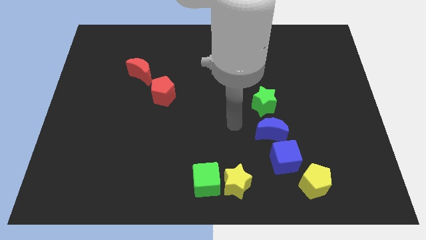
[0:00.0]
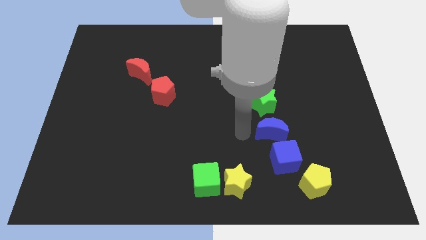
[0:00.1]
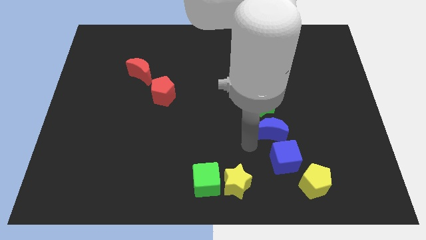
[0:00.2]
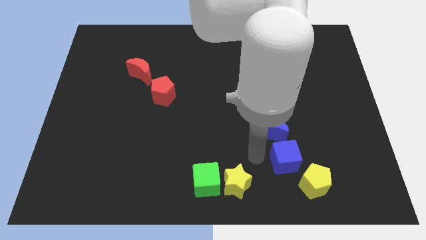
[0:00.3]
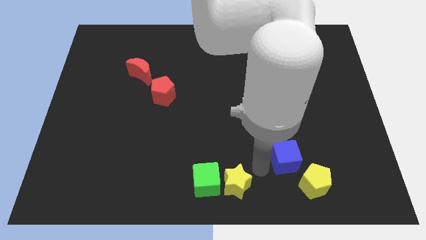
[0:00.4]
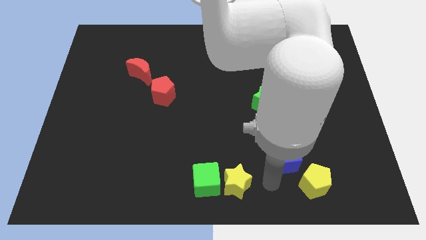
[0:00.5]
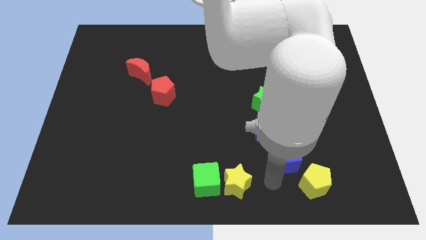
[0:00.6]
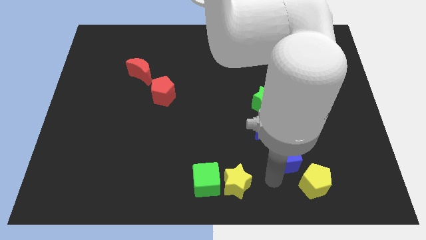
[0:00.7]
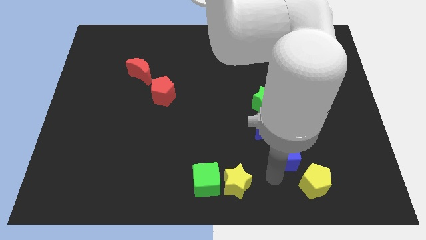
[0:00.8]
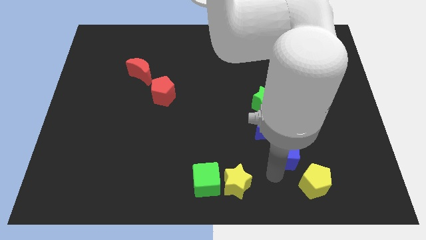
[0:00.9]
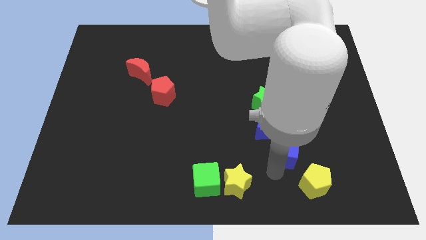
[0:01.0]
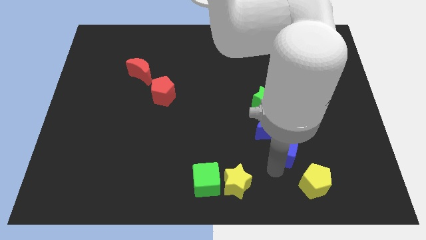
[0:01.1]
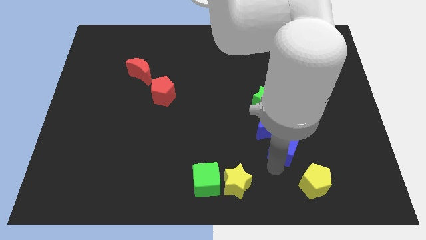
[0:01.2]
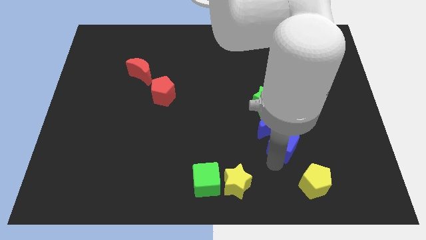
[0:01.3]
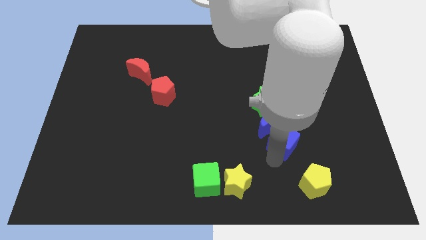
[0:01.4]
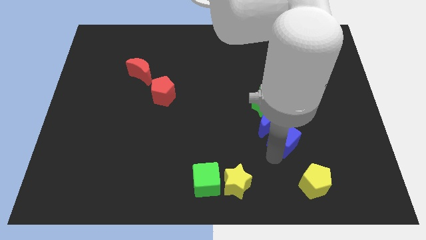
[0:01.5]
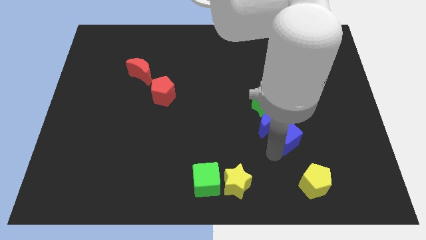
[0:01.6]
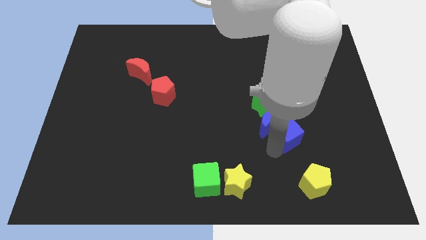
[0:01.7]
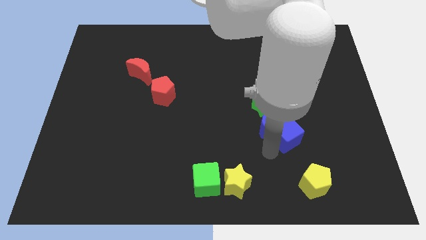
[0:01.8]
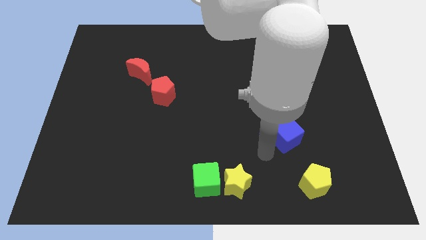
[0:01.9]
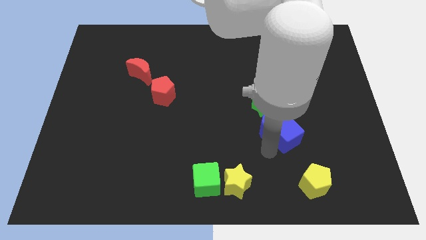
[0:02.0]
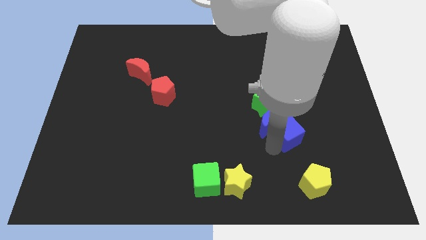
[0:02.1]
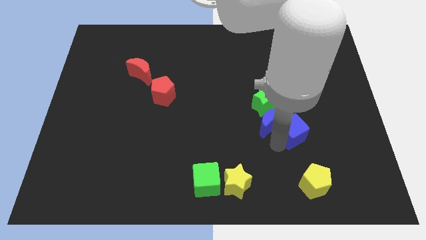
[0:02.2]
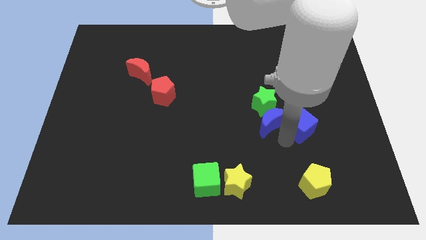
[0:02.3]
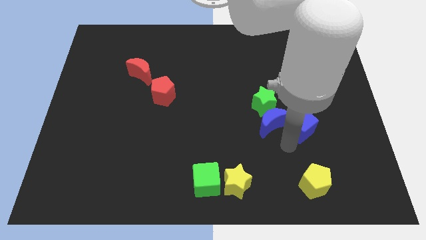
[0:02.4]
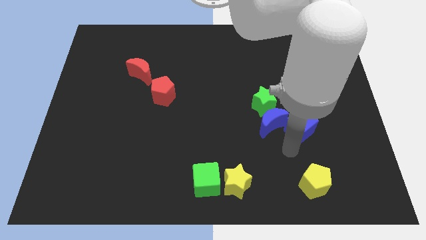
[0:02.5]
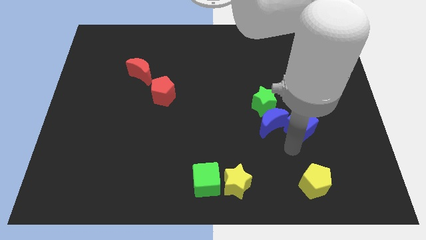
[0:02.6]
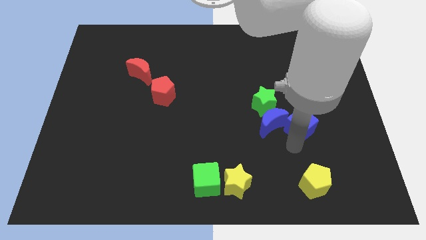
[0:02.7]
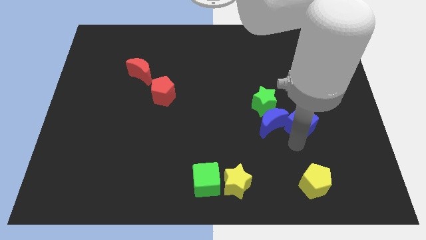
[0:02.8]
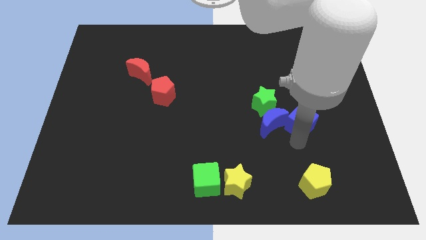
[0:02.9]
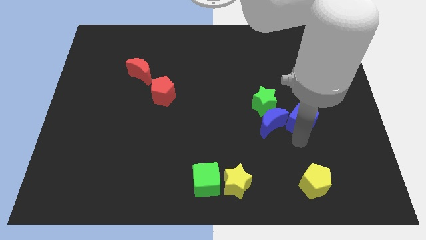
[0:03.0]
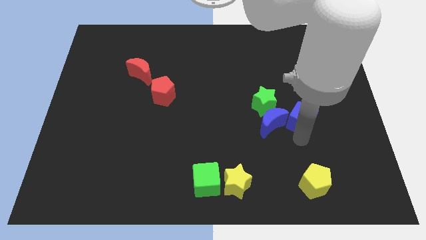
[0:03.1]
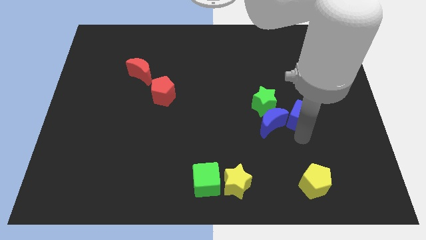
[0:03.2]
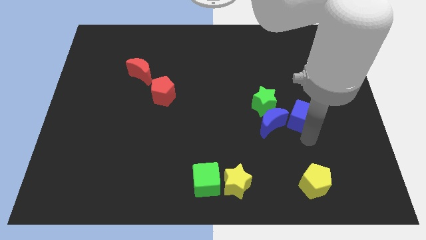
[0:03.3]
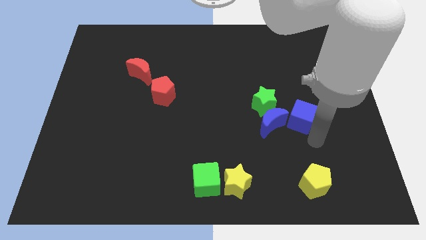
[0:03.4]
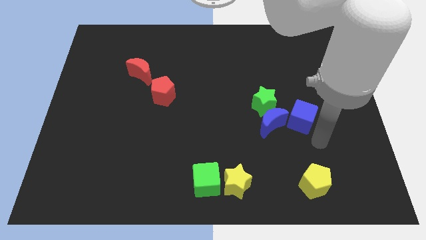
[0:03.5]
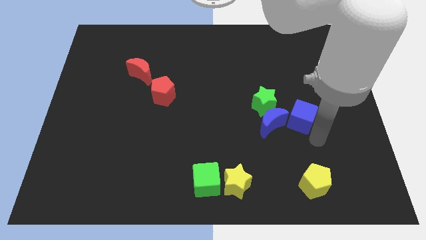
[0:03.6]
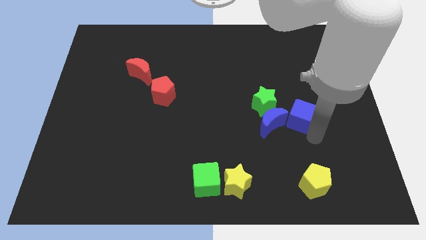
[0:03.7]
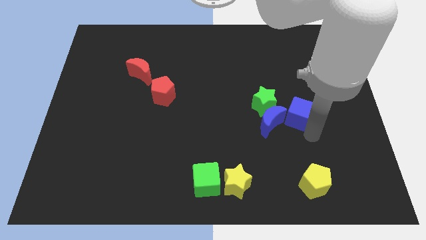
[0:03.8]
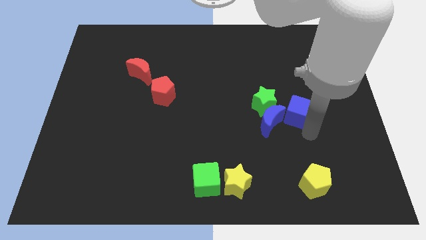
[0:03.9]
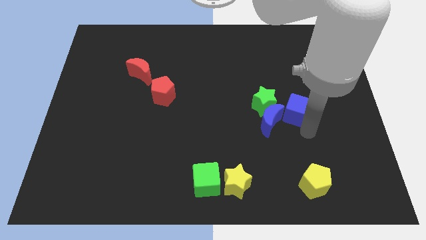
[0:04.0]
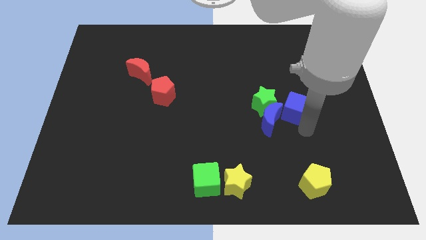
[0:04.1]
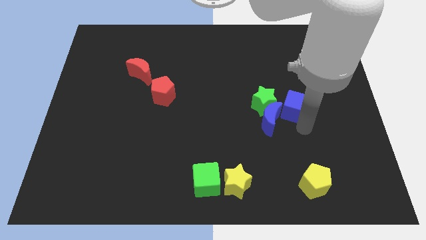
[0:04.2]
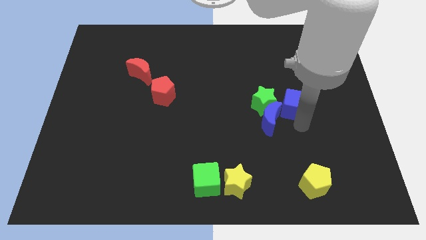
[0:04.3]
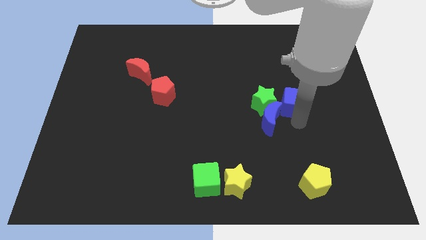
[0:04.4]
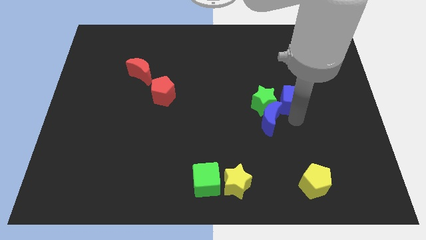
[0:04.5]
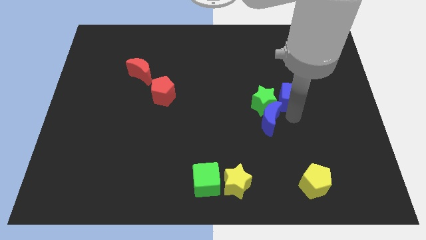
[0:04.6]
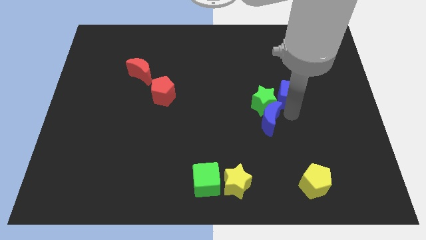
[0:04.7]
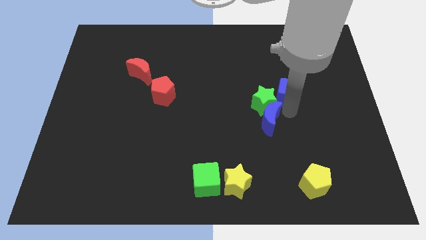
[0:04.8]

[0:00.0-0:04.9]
push the blue cube to the top of the blue moon

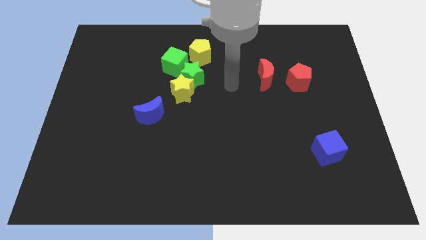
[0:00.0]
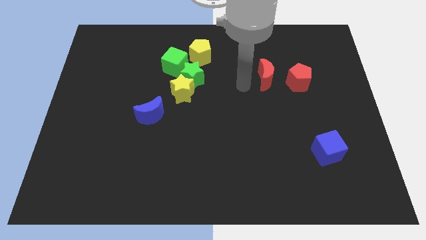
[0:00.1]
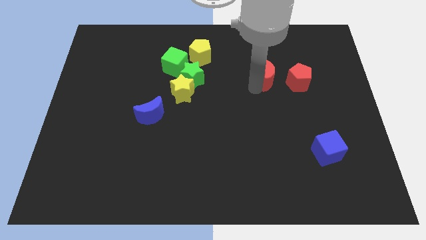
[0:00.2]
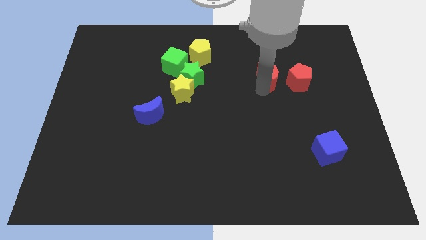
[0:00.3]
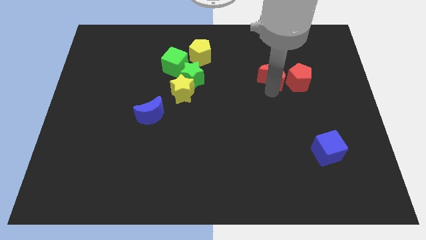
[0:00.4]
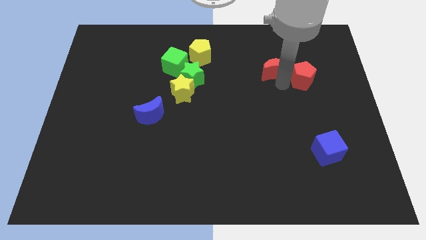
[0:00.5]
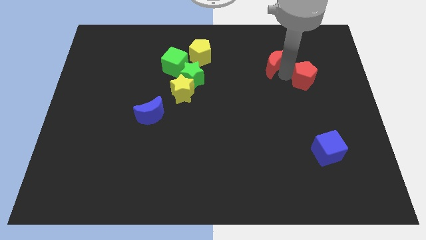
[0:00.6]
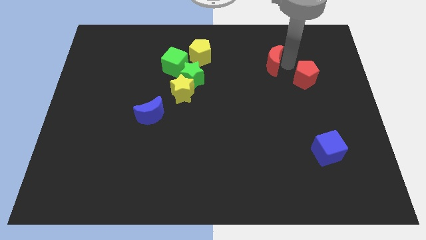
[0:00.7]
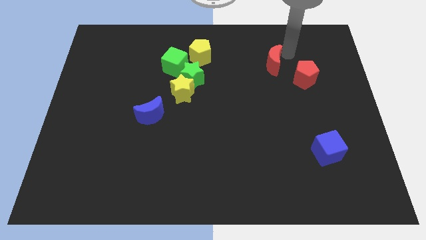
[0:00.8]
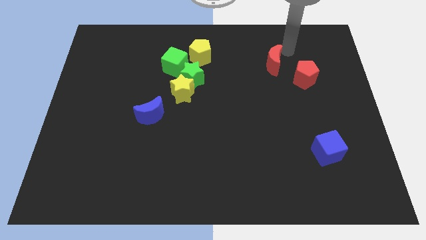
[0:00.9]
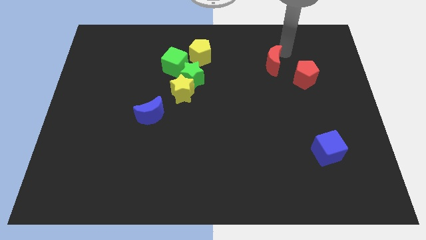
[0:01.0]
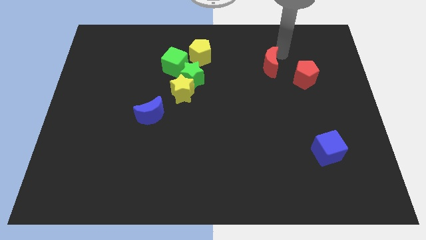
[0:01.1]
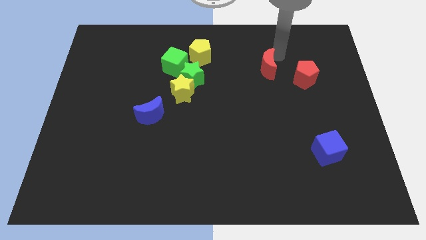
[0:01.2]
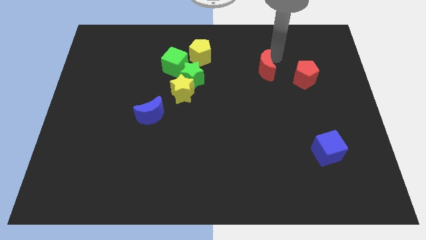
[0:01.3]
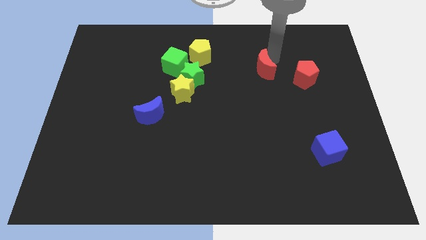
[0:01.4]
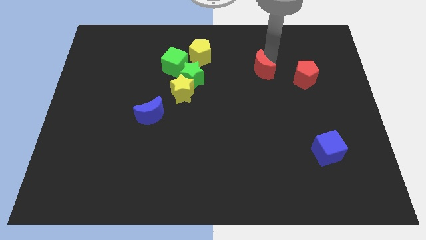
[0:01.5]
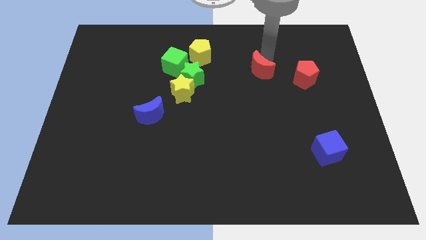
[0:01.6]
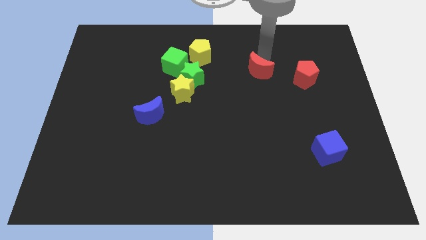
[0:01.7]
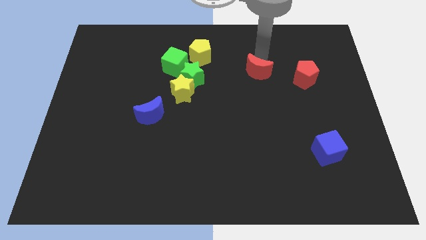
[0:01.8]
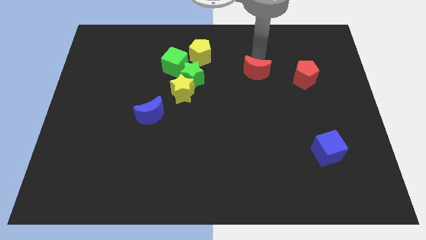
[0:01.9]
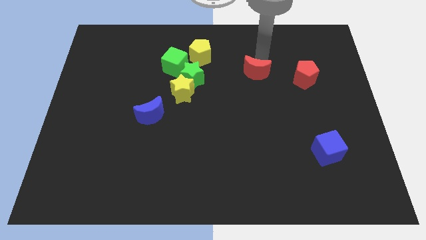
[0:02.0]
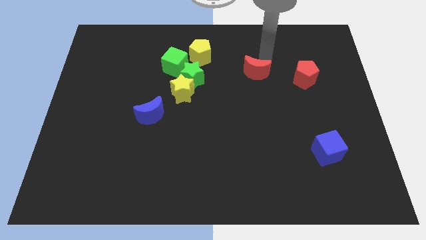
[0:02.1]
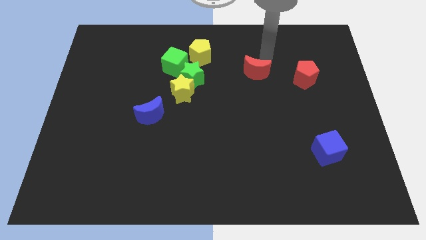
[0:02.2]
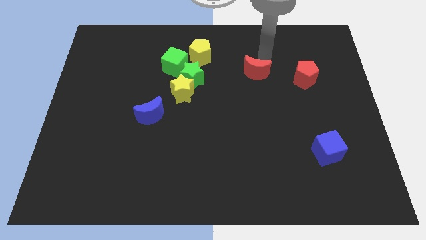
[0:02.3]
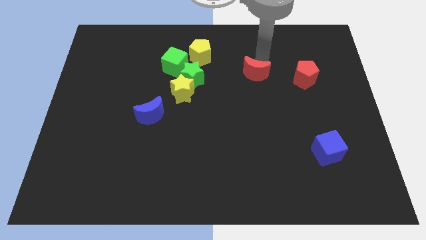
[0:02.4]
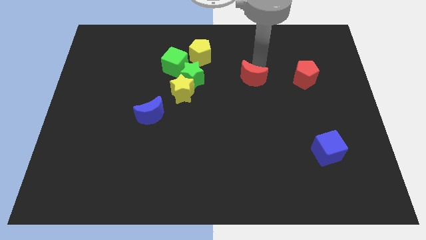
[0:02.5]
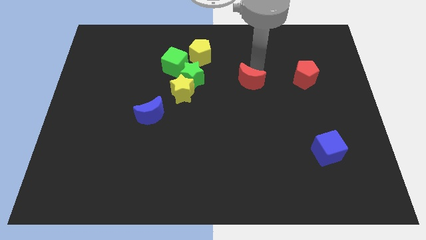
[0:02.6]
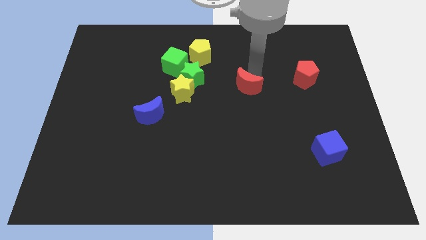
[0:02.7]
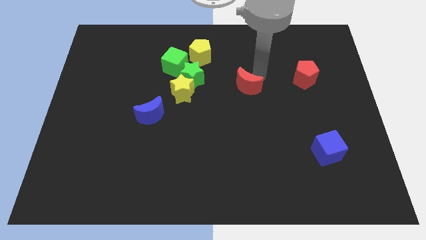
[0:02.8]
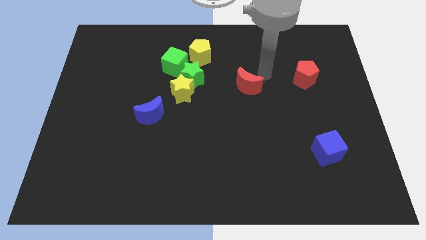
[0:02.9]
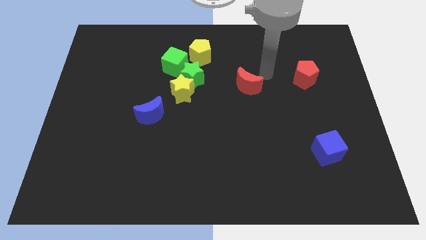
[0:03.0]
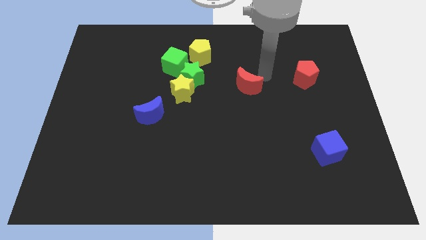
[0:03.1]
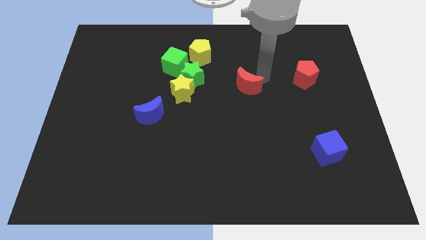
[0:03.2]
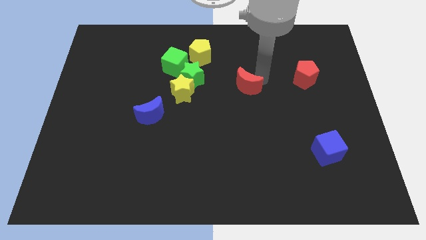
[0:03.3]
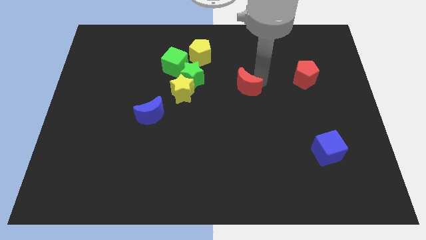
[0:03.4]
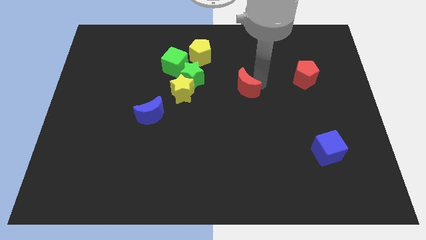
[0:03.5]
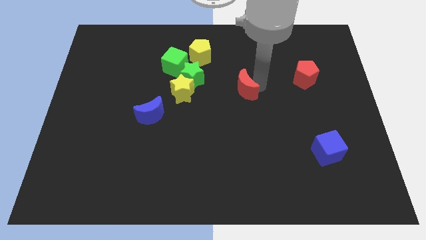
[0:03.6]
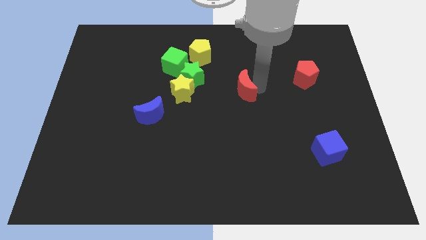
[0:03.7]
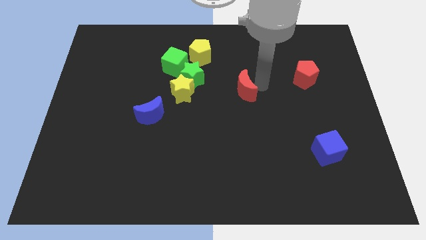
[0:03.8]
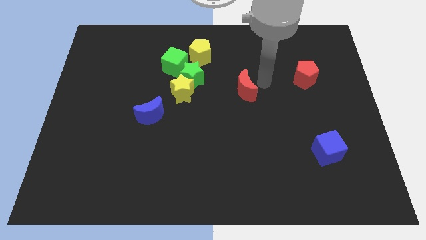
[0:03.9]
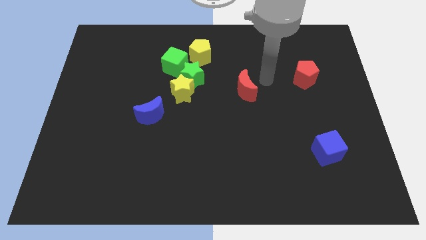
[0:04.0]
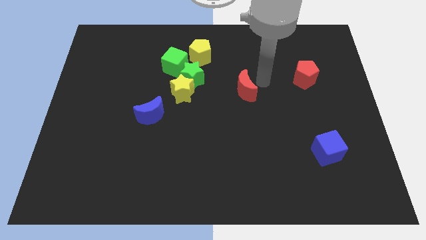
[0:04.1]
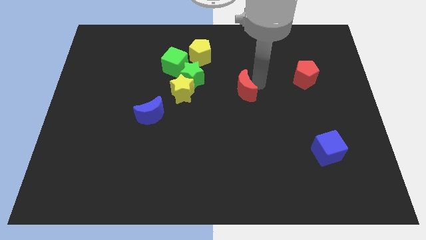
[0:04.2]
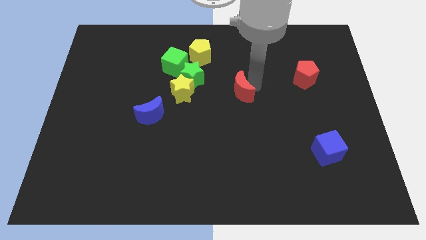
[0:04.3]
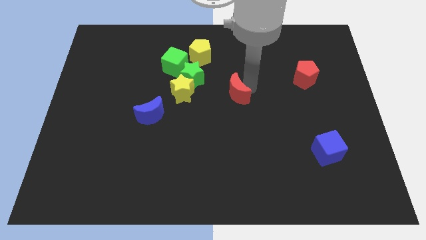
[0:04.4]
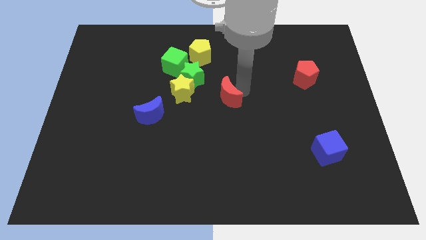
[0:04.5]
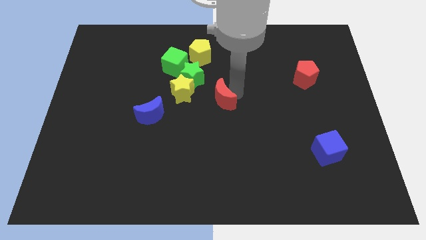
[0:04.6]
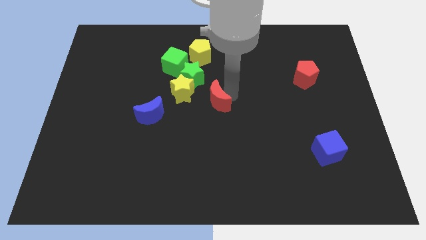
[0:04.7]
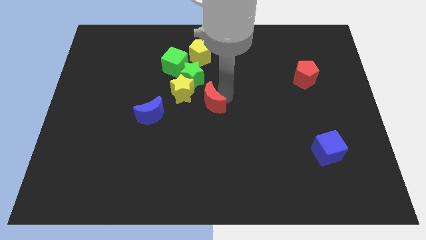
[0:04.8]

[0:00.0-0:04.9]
put the red moon to the right side of the blue moon
